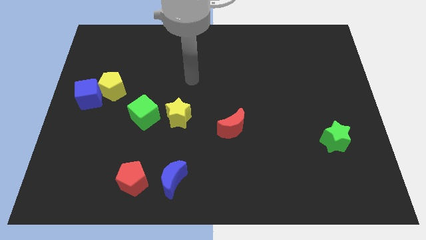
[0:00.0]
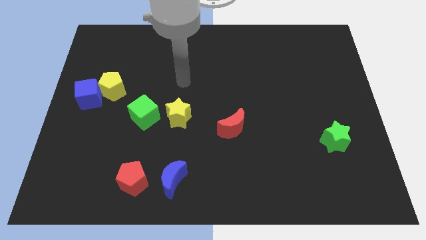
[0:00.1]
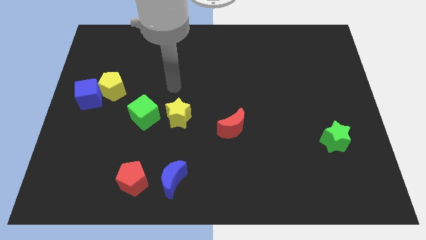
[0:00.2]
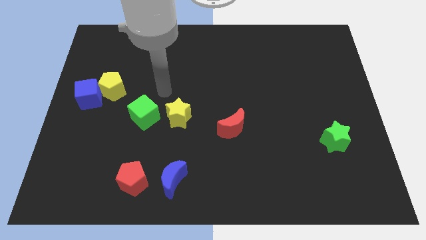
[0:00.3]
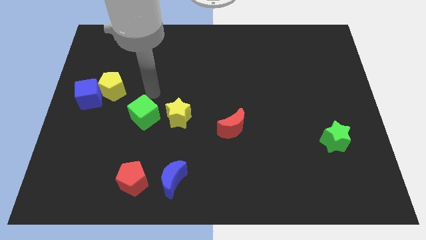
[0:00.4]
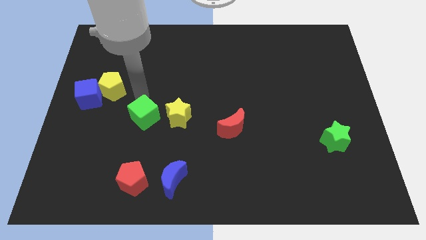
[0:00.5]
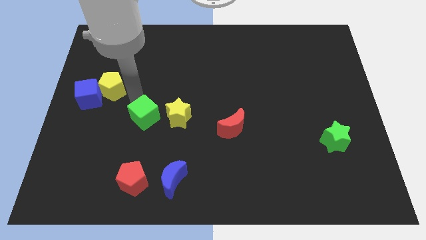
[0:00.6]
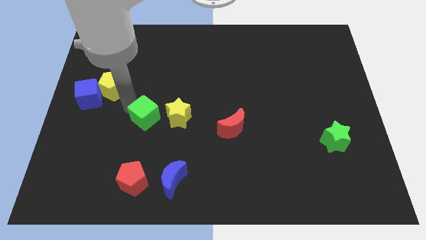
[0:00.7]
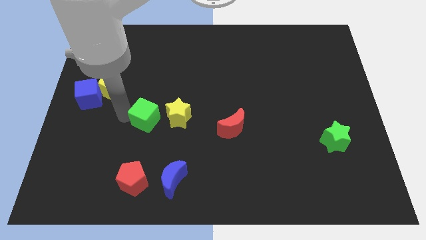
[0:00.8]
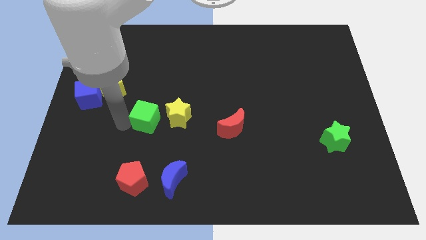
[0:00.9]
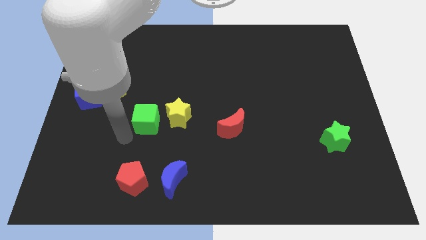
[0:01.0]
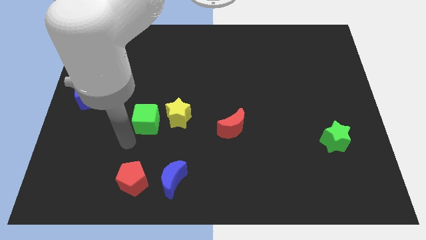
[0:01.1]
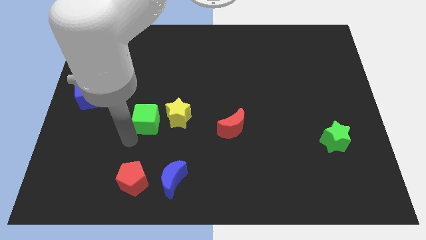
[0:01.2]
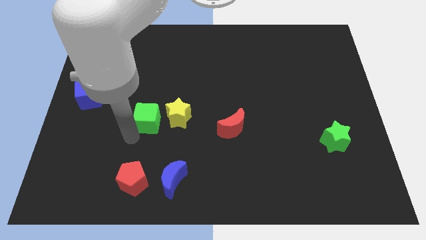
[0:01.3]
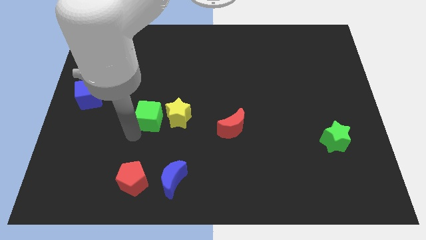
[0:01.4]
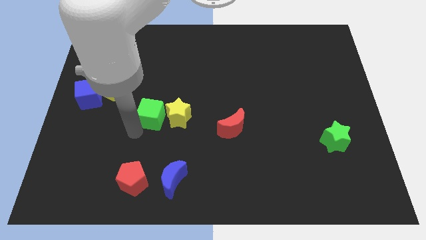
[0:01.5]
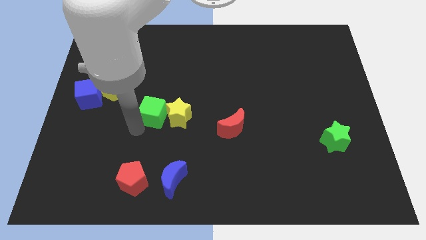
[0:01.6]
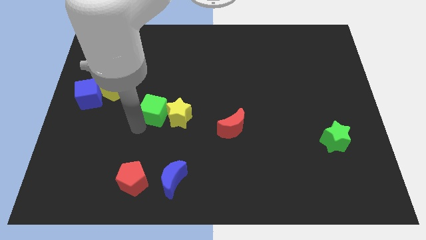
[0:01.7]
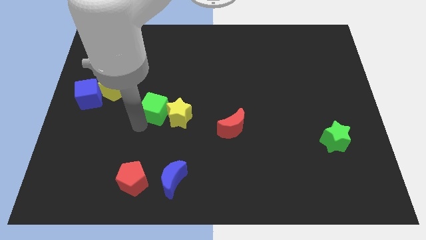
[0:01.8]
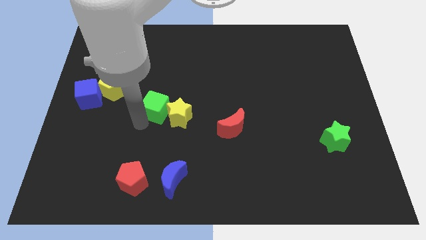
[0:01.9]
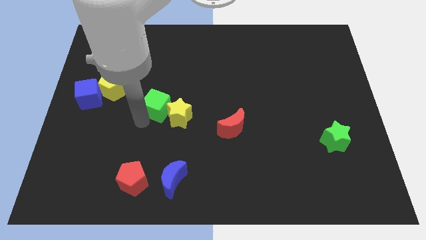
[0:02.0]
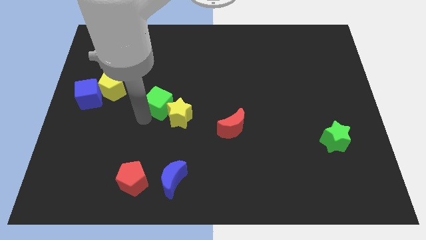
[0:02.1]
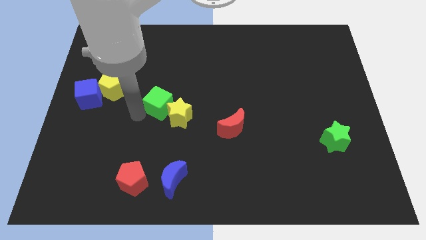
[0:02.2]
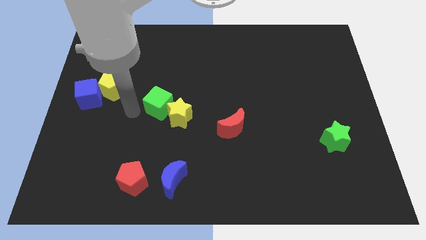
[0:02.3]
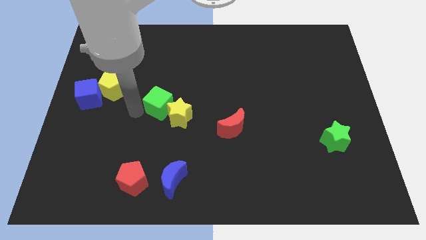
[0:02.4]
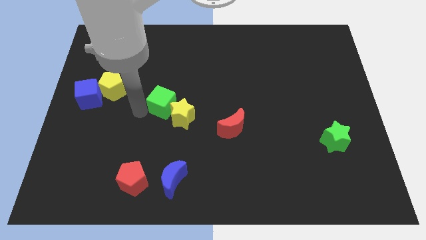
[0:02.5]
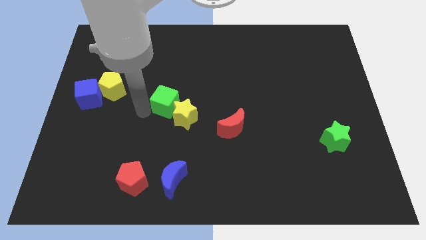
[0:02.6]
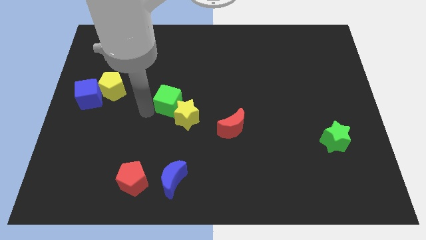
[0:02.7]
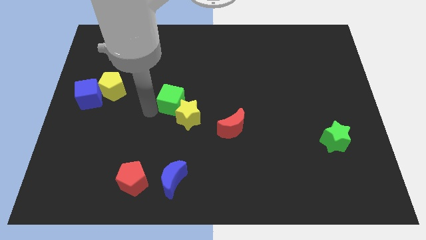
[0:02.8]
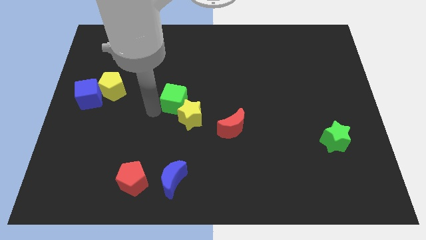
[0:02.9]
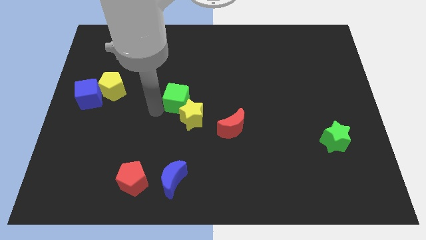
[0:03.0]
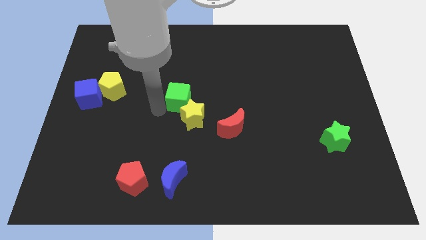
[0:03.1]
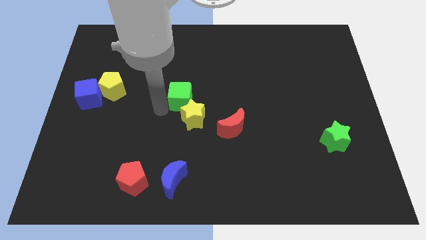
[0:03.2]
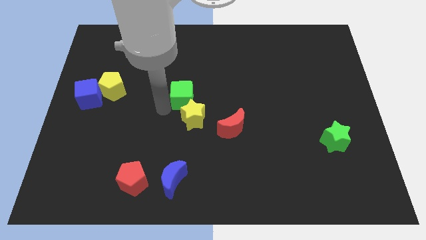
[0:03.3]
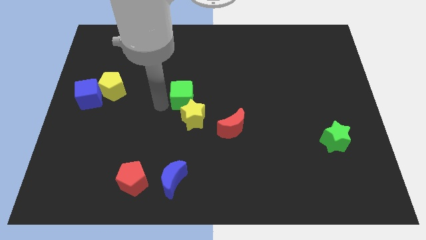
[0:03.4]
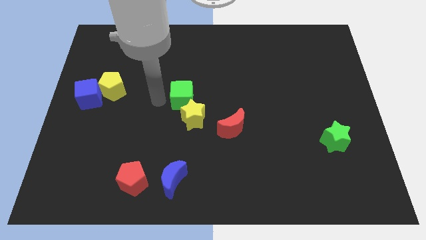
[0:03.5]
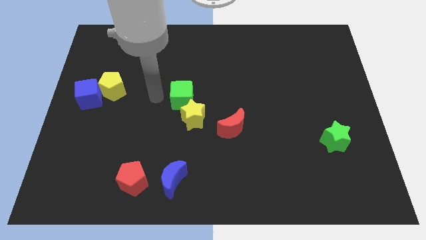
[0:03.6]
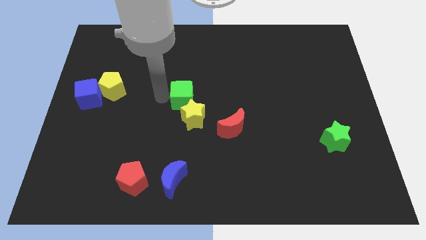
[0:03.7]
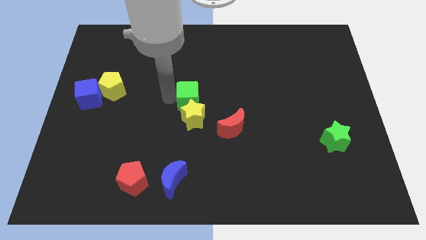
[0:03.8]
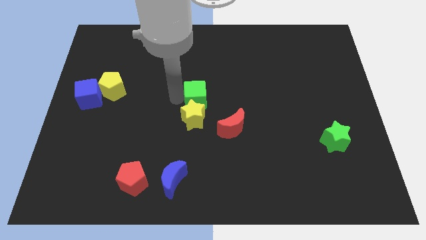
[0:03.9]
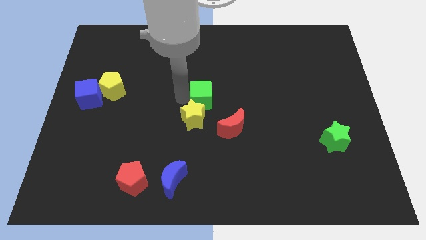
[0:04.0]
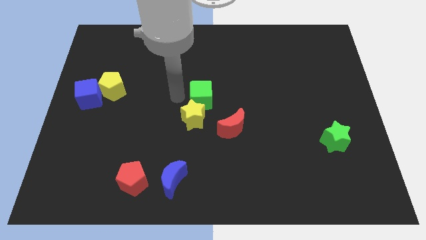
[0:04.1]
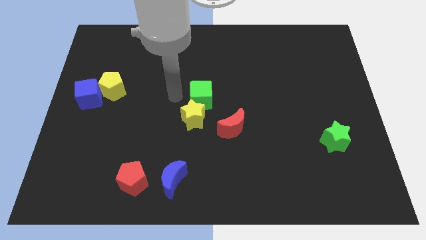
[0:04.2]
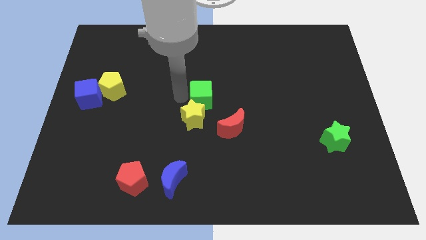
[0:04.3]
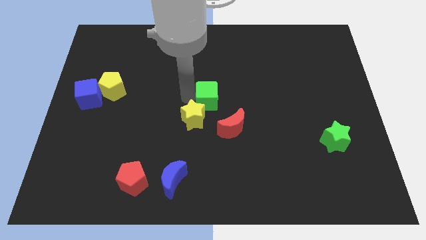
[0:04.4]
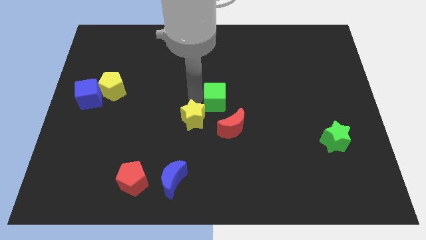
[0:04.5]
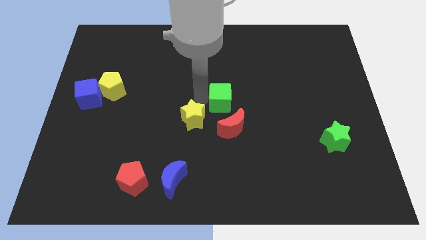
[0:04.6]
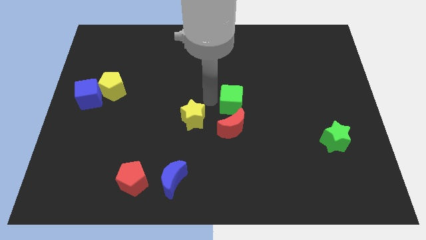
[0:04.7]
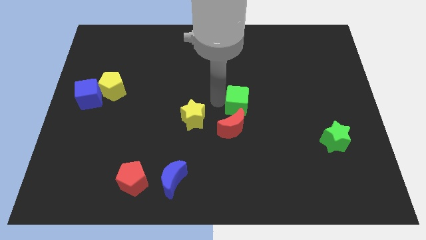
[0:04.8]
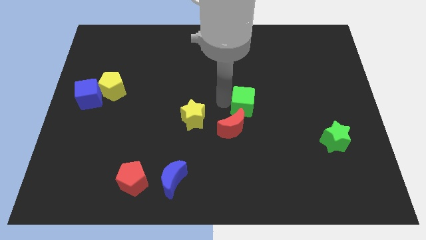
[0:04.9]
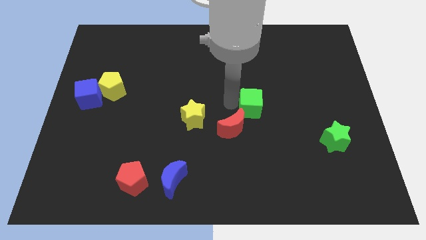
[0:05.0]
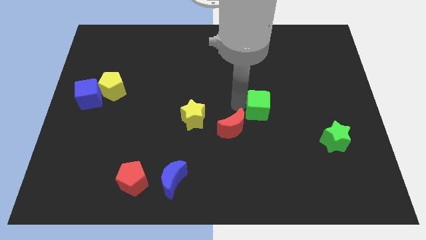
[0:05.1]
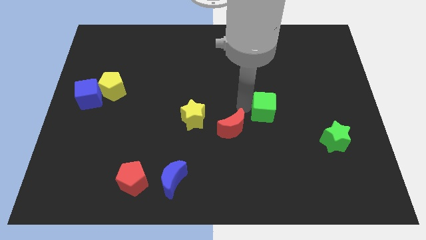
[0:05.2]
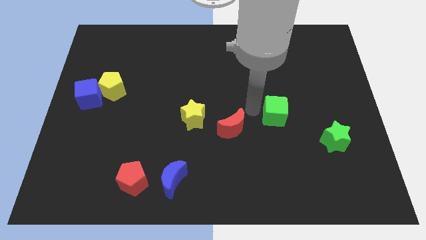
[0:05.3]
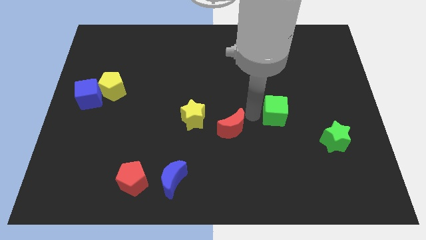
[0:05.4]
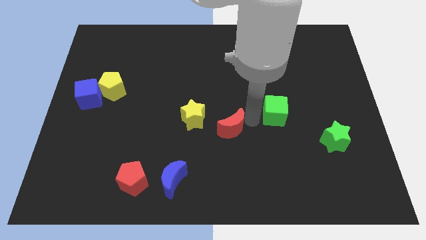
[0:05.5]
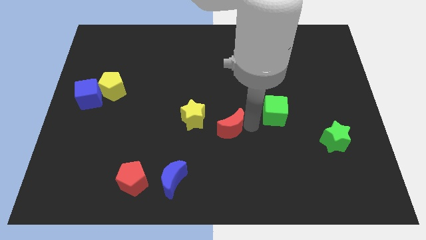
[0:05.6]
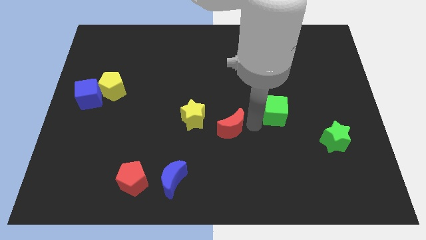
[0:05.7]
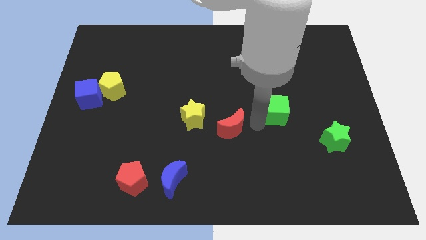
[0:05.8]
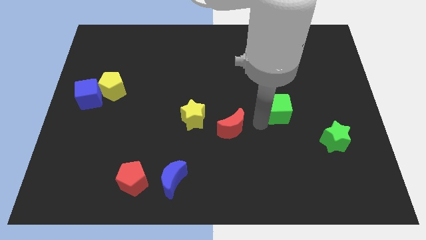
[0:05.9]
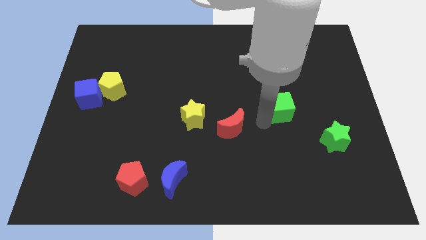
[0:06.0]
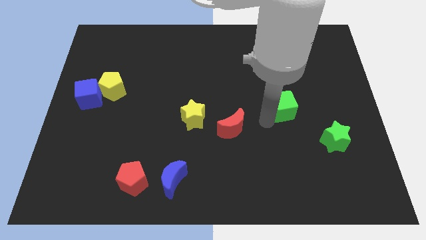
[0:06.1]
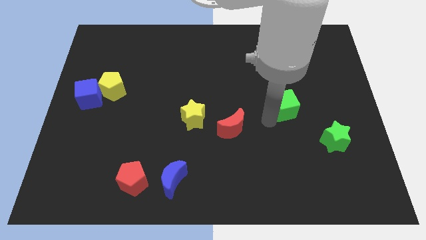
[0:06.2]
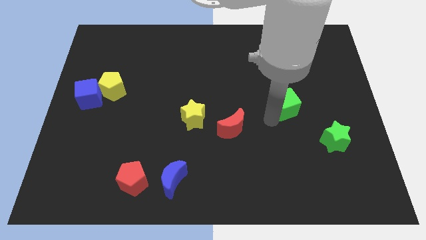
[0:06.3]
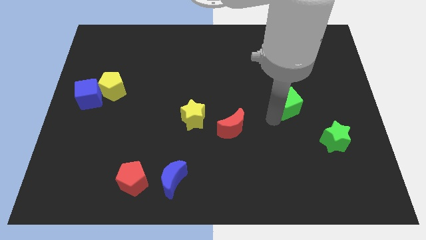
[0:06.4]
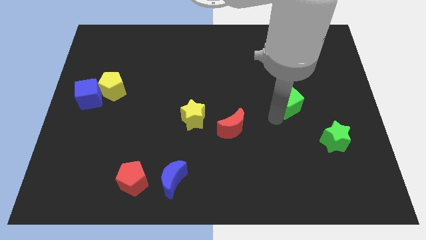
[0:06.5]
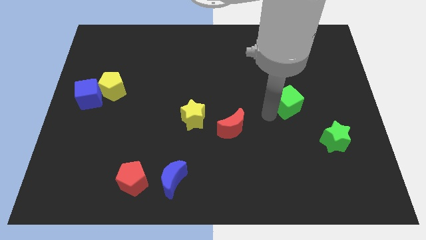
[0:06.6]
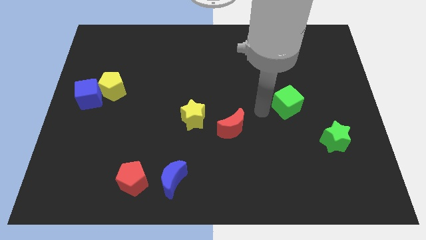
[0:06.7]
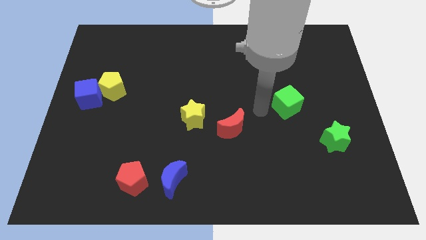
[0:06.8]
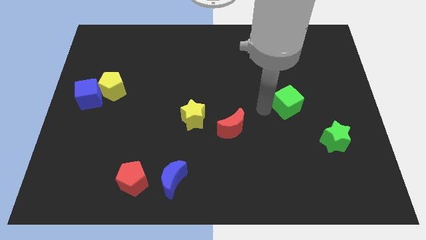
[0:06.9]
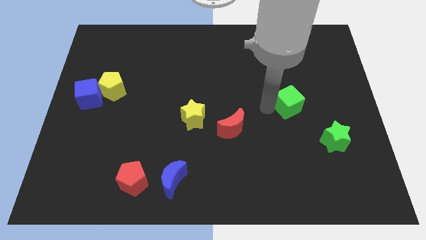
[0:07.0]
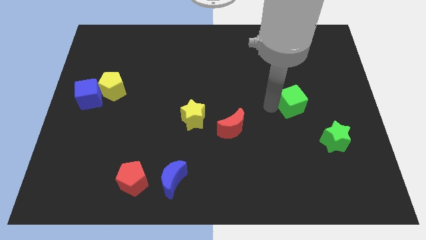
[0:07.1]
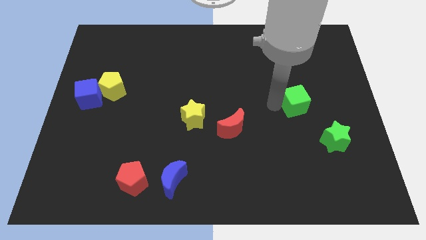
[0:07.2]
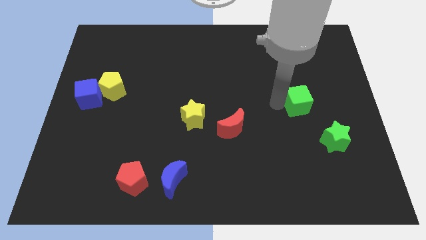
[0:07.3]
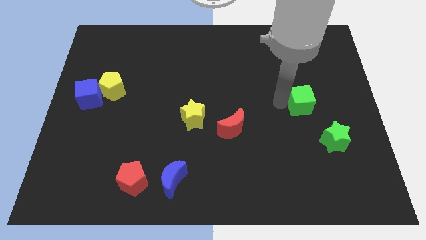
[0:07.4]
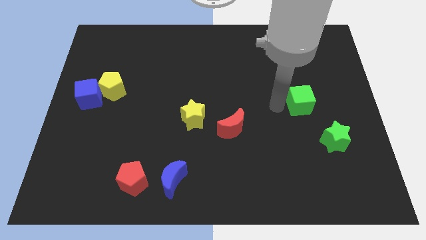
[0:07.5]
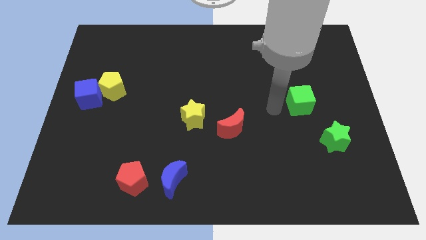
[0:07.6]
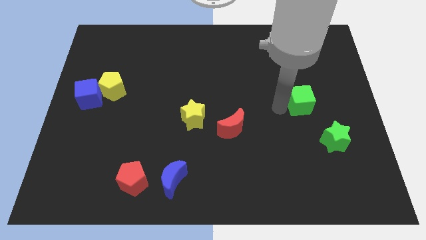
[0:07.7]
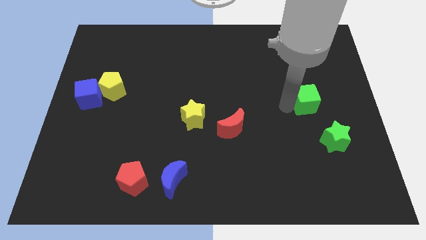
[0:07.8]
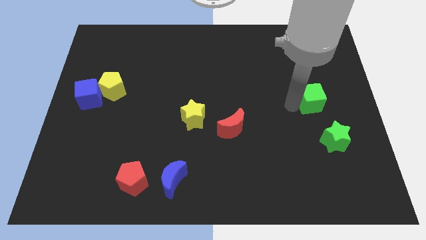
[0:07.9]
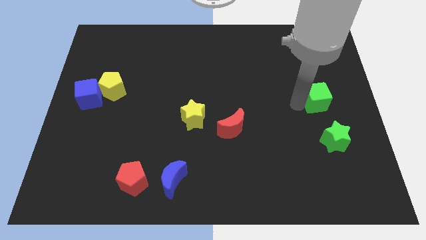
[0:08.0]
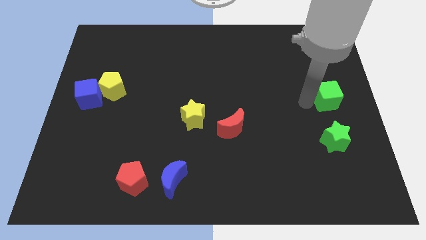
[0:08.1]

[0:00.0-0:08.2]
put the green cube to the right side of the board
